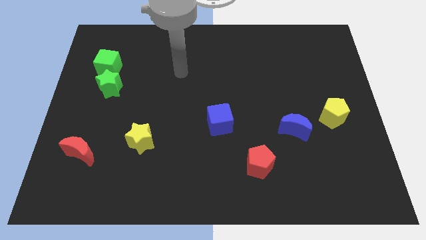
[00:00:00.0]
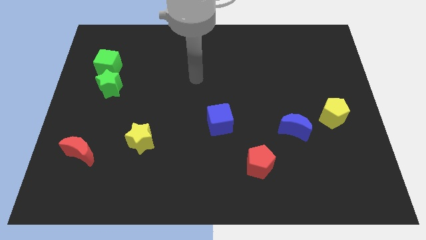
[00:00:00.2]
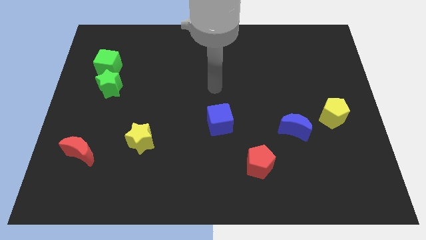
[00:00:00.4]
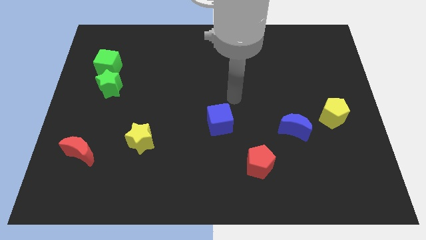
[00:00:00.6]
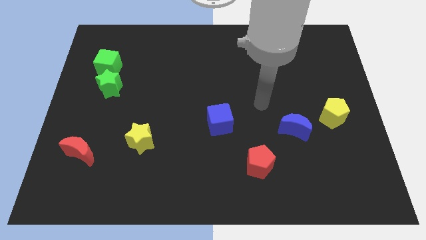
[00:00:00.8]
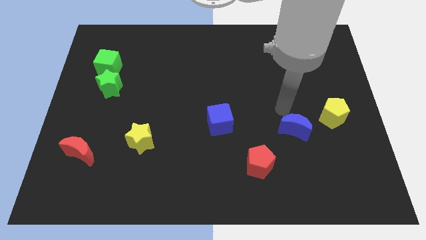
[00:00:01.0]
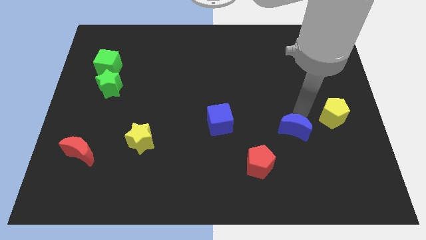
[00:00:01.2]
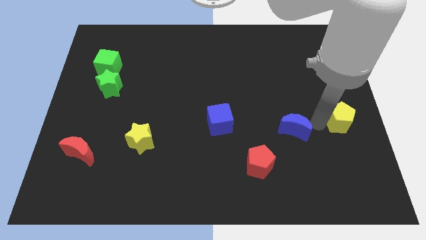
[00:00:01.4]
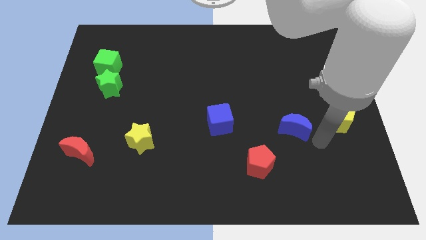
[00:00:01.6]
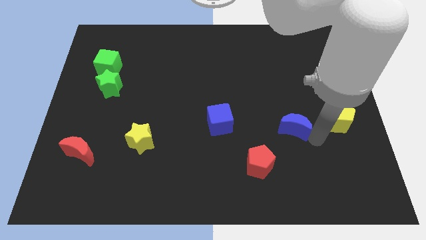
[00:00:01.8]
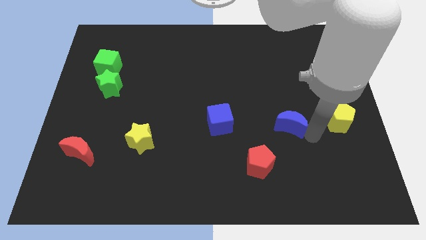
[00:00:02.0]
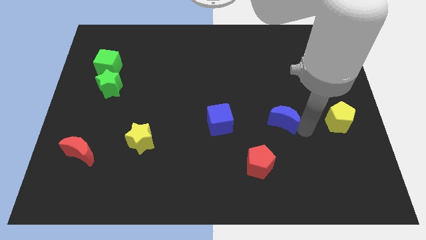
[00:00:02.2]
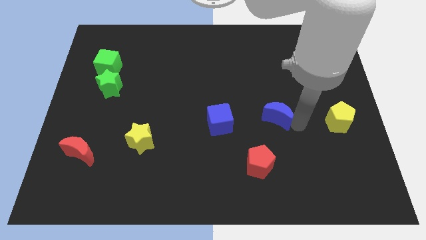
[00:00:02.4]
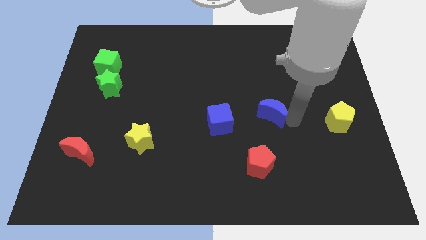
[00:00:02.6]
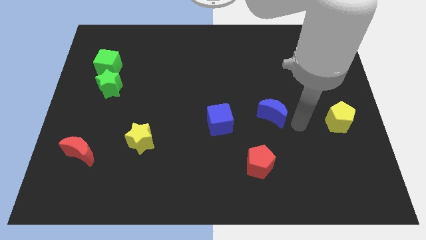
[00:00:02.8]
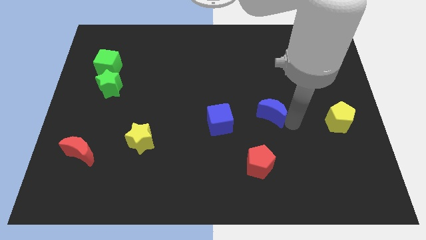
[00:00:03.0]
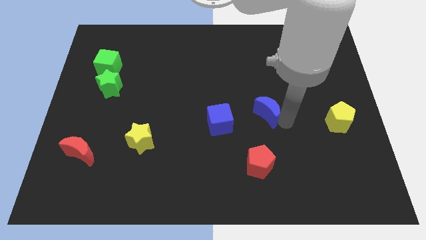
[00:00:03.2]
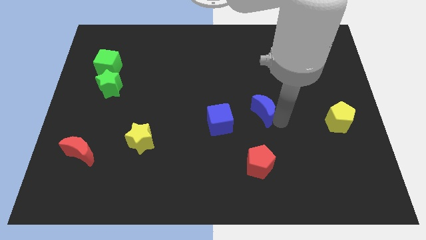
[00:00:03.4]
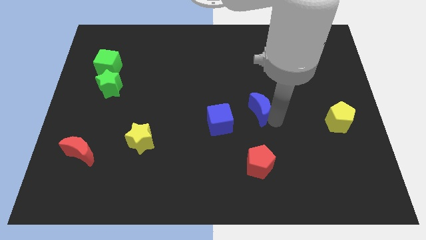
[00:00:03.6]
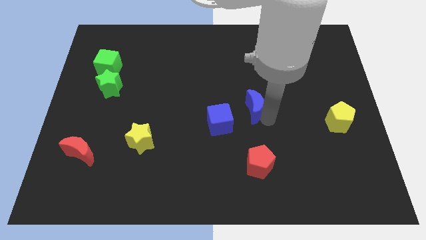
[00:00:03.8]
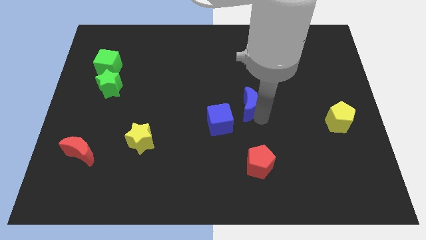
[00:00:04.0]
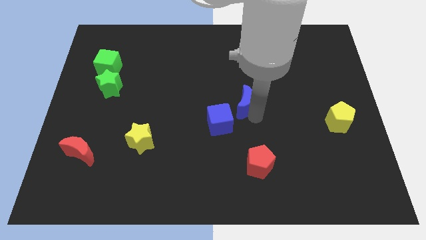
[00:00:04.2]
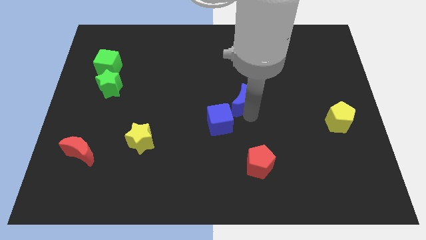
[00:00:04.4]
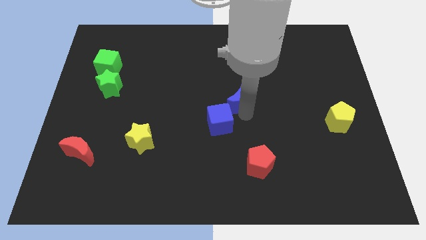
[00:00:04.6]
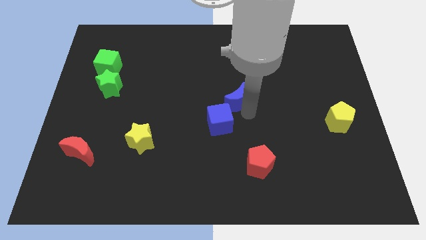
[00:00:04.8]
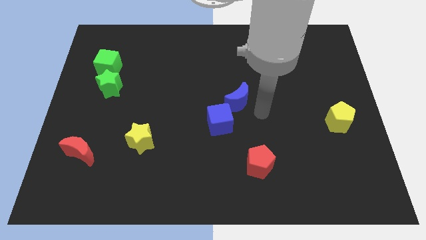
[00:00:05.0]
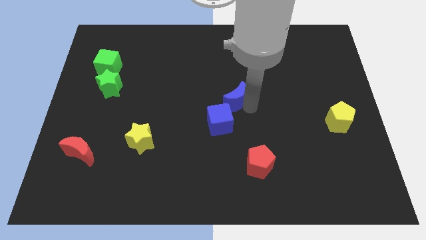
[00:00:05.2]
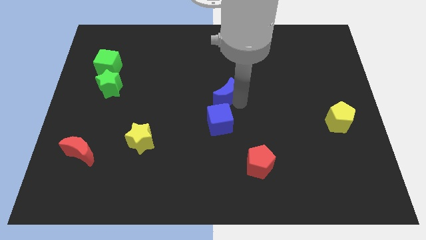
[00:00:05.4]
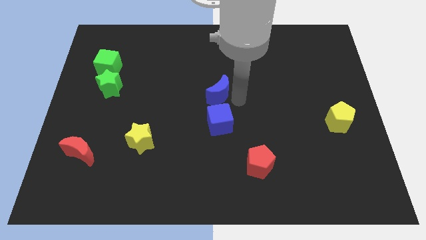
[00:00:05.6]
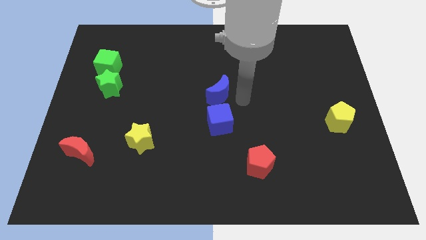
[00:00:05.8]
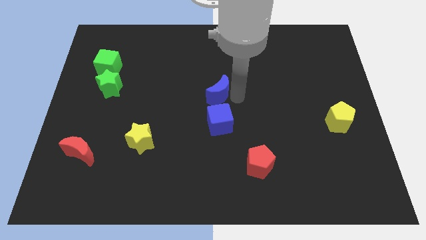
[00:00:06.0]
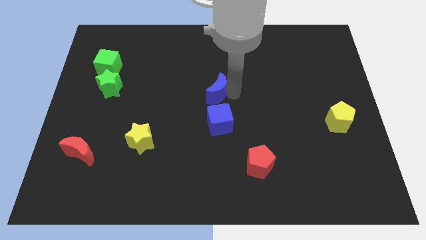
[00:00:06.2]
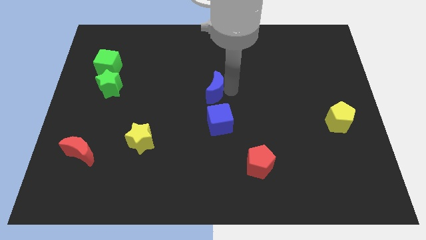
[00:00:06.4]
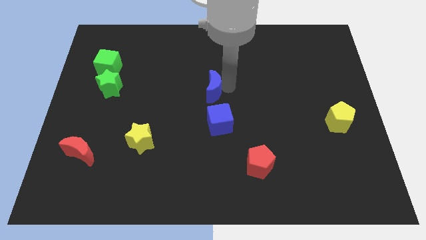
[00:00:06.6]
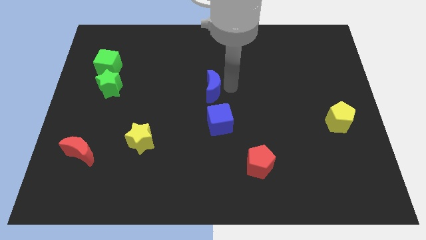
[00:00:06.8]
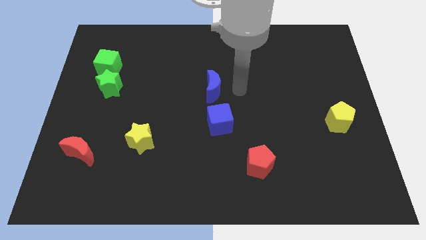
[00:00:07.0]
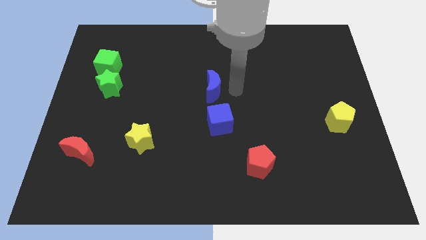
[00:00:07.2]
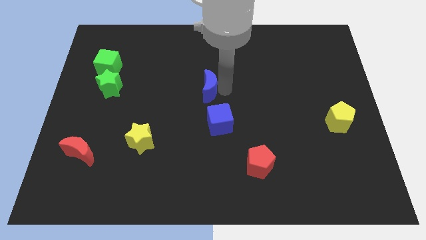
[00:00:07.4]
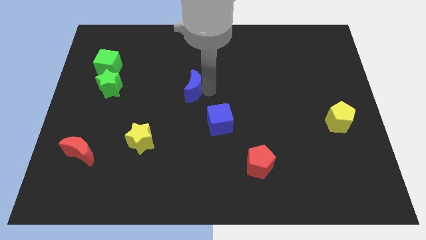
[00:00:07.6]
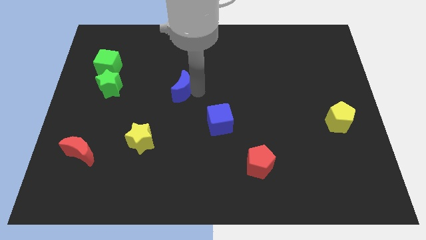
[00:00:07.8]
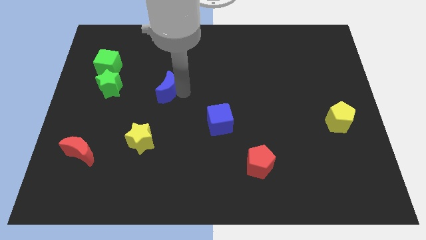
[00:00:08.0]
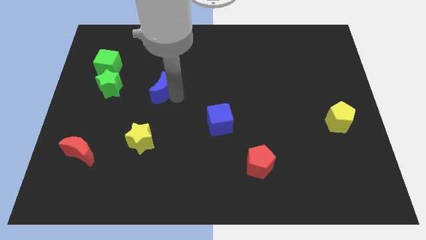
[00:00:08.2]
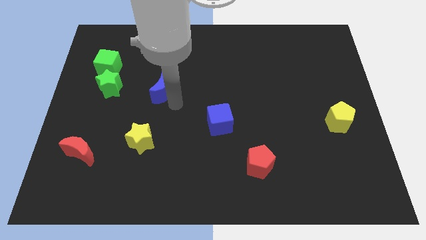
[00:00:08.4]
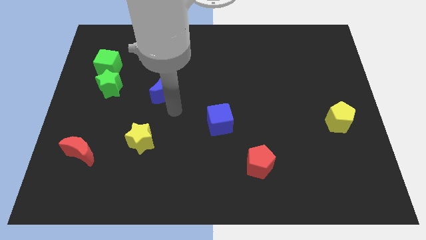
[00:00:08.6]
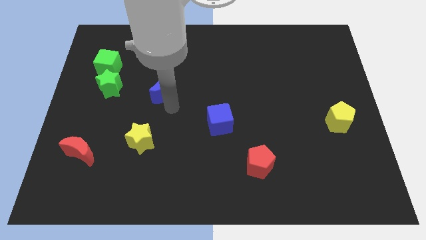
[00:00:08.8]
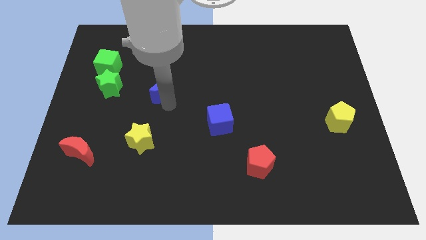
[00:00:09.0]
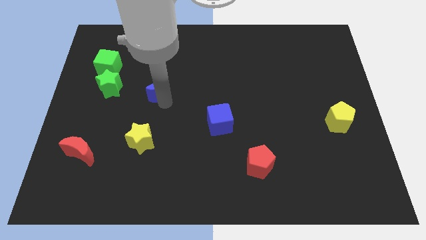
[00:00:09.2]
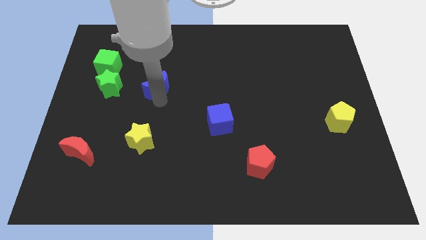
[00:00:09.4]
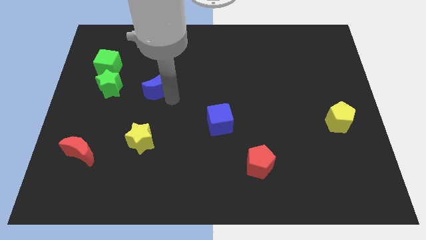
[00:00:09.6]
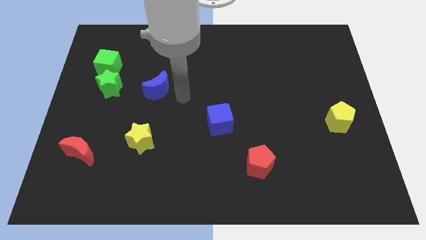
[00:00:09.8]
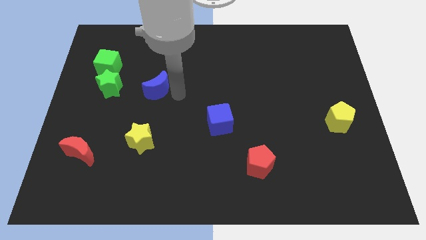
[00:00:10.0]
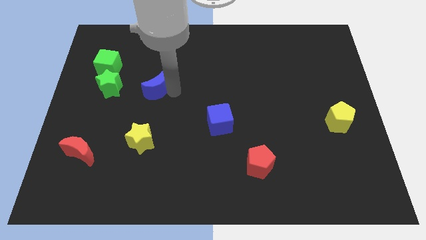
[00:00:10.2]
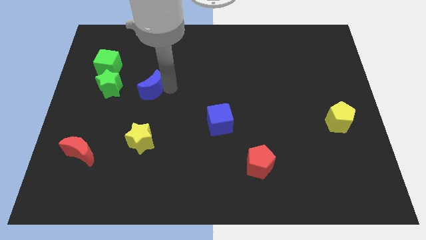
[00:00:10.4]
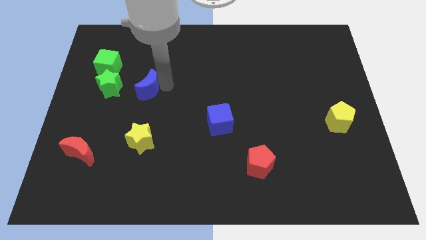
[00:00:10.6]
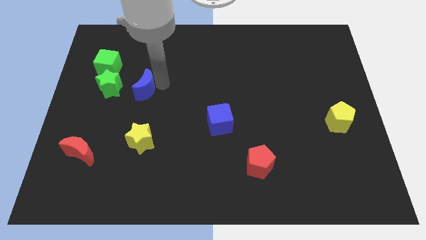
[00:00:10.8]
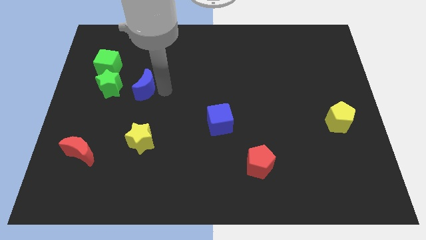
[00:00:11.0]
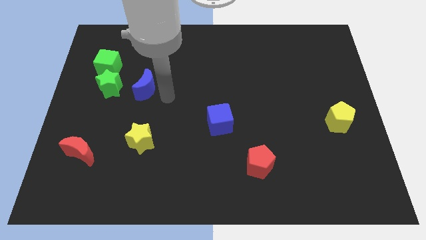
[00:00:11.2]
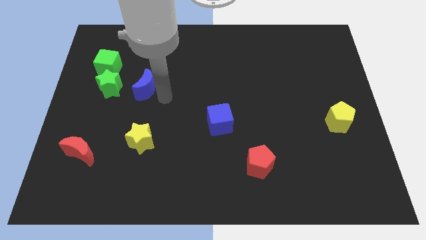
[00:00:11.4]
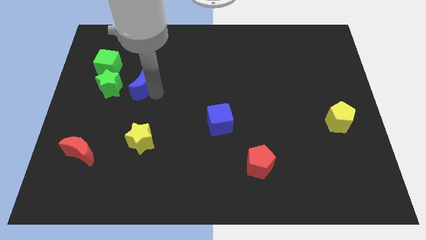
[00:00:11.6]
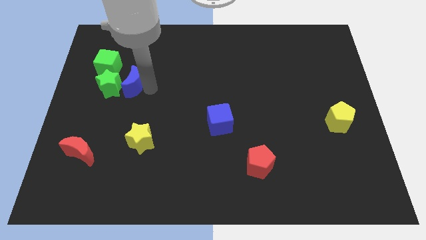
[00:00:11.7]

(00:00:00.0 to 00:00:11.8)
move the blue moon towards the green star

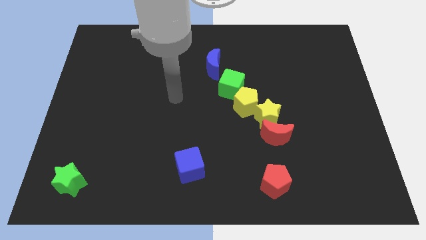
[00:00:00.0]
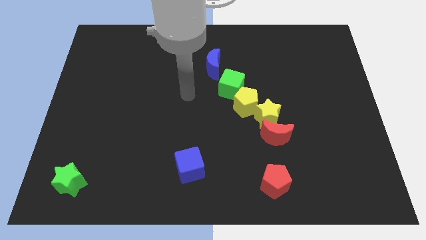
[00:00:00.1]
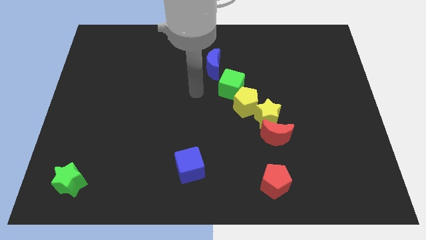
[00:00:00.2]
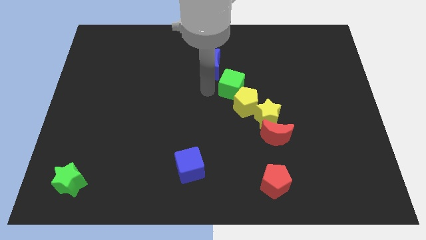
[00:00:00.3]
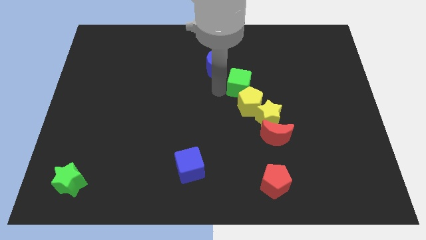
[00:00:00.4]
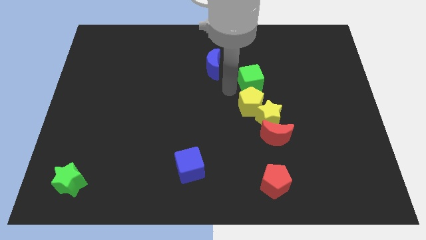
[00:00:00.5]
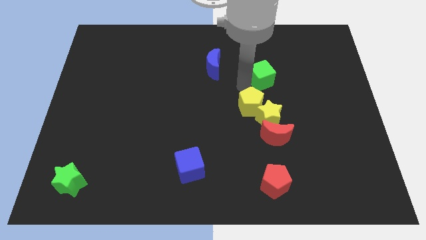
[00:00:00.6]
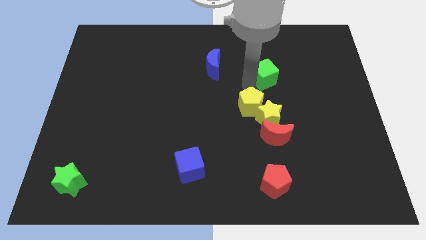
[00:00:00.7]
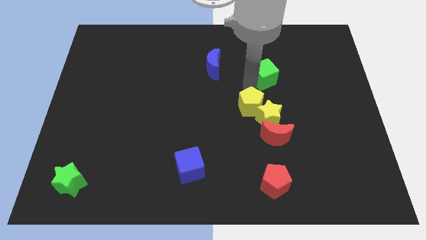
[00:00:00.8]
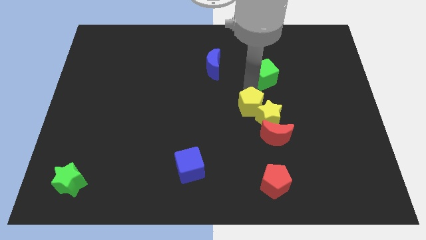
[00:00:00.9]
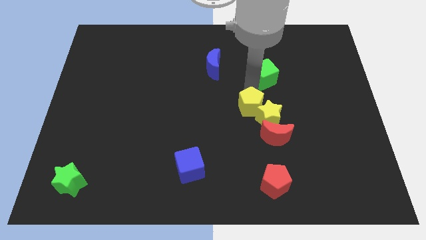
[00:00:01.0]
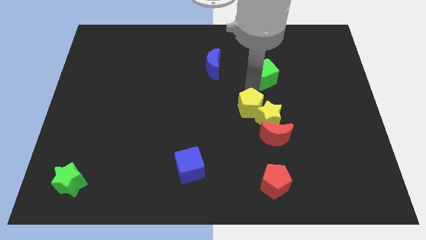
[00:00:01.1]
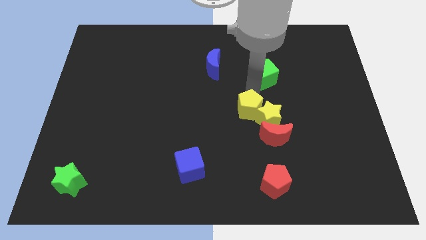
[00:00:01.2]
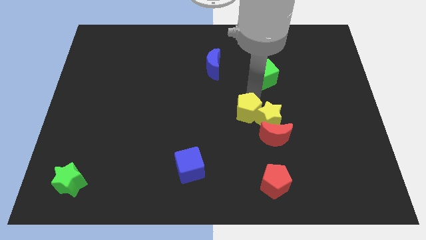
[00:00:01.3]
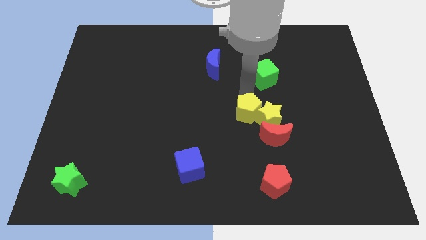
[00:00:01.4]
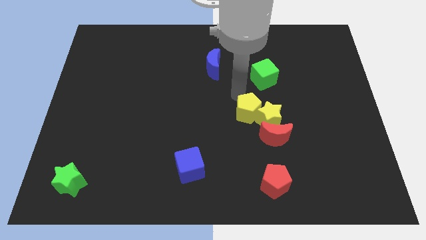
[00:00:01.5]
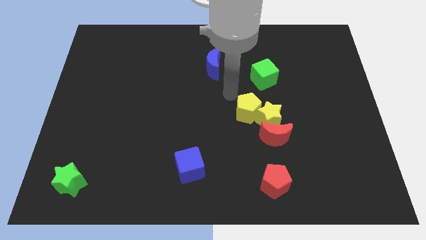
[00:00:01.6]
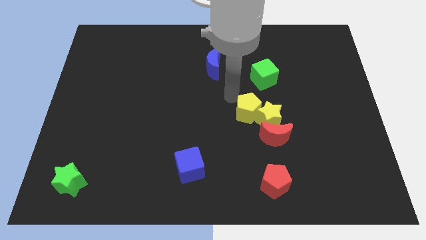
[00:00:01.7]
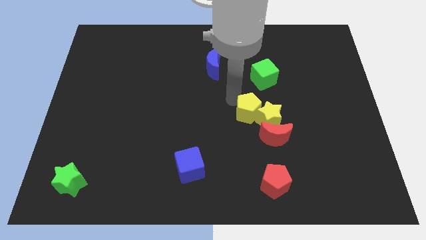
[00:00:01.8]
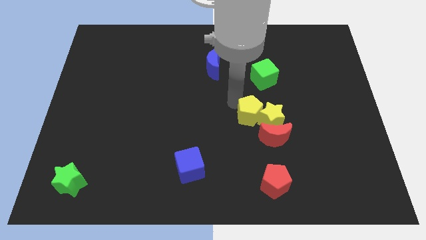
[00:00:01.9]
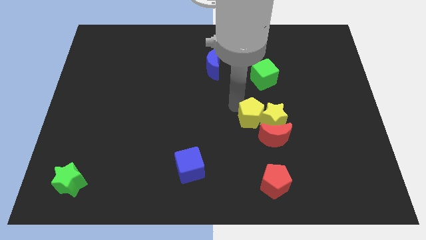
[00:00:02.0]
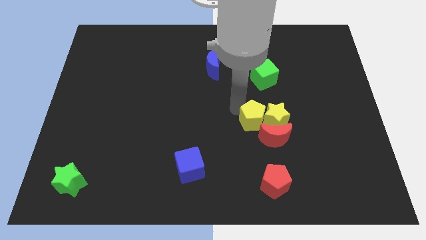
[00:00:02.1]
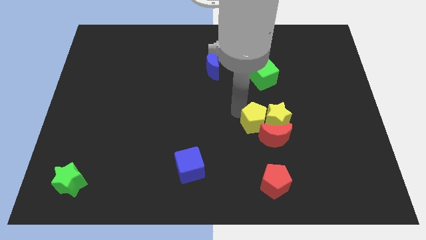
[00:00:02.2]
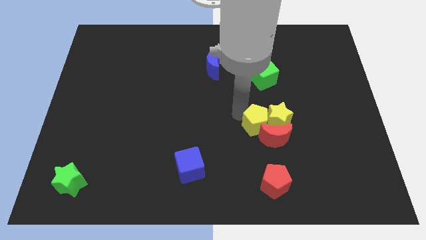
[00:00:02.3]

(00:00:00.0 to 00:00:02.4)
push the yellow pentagon next to the red moon
